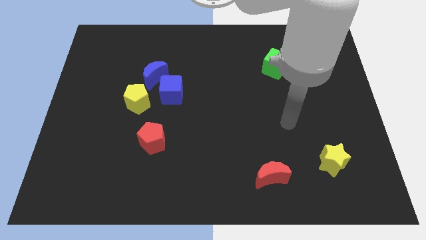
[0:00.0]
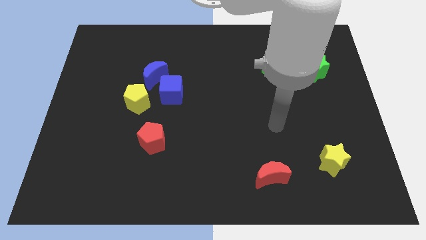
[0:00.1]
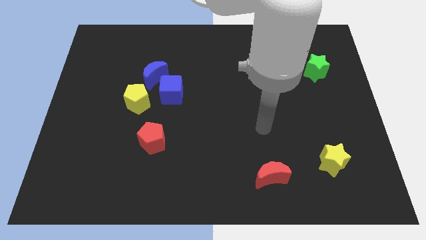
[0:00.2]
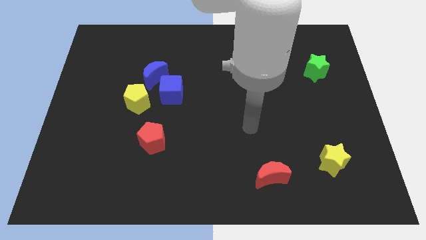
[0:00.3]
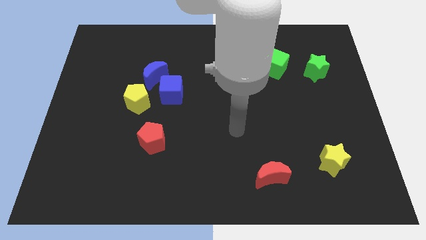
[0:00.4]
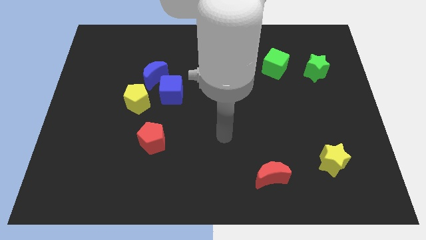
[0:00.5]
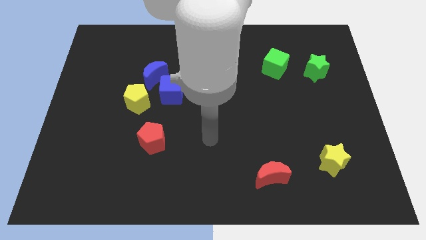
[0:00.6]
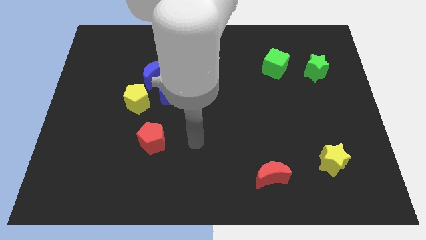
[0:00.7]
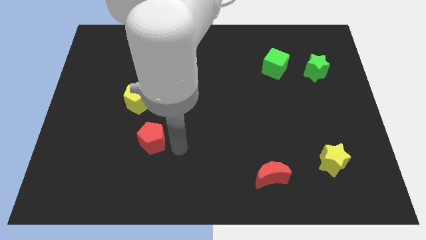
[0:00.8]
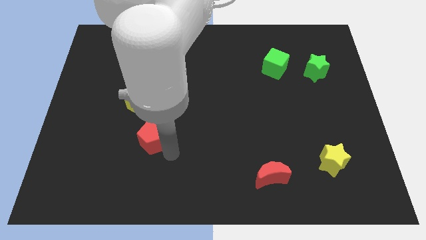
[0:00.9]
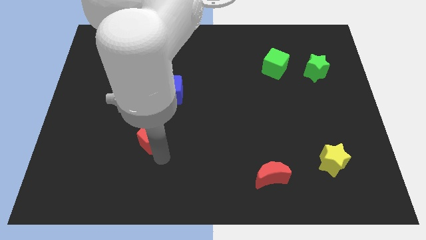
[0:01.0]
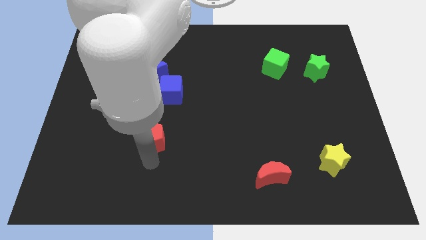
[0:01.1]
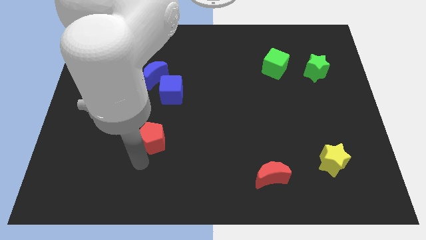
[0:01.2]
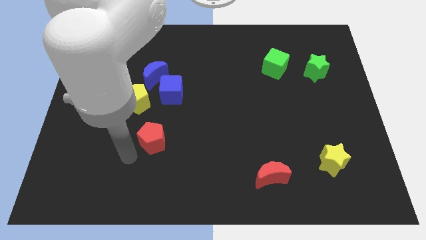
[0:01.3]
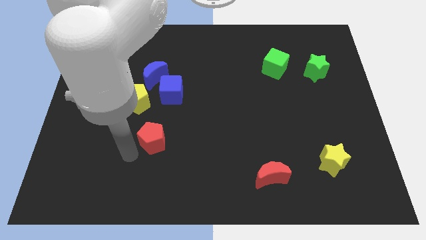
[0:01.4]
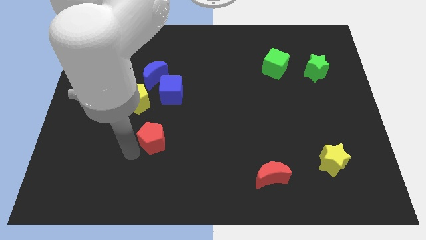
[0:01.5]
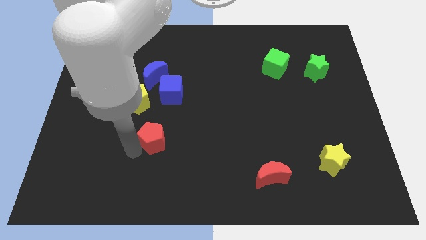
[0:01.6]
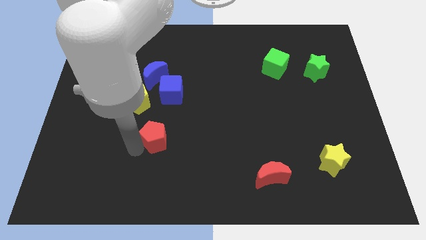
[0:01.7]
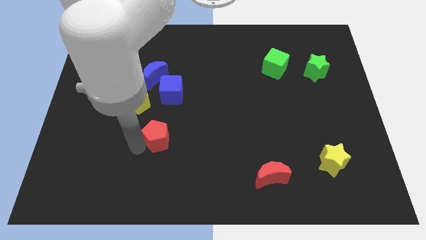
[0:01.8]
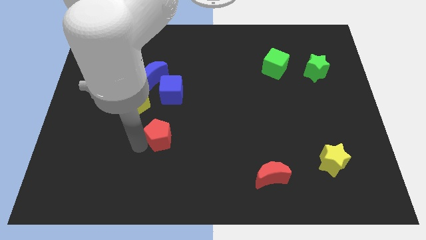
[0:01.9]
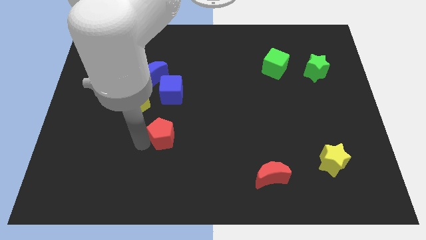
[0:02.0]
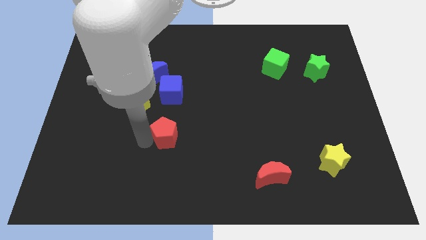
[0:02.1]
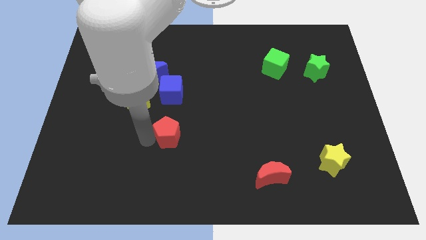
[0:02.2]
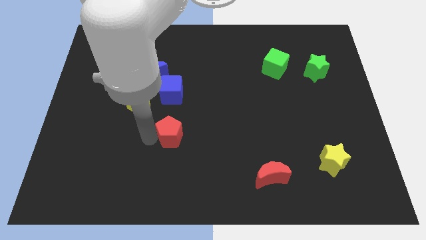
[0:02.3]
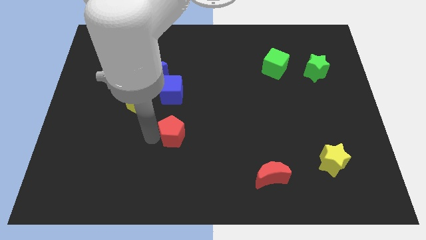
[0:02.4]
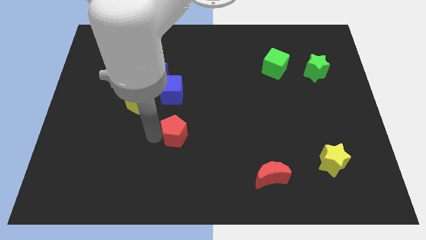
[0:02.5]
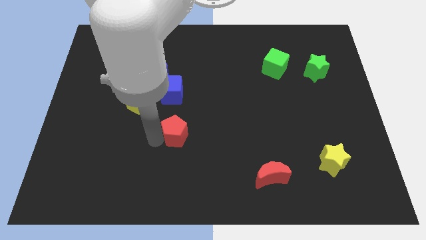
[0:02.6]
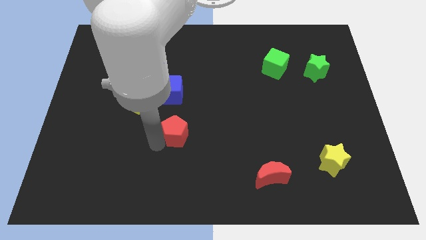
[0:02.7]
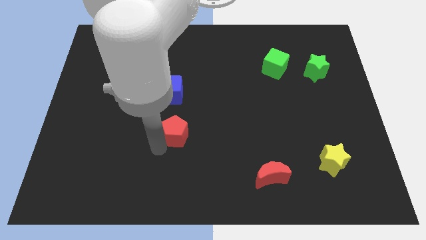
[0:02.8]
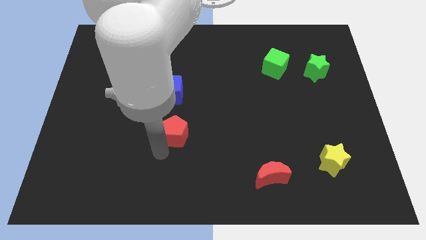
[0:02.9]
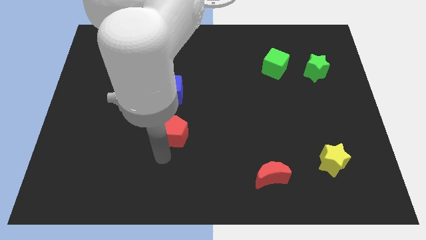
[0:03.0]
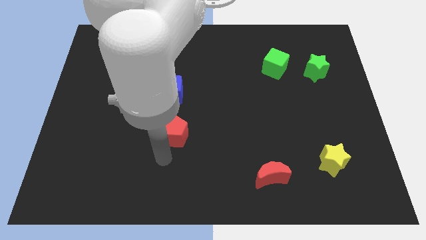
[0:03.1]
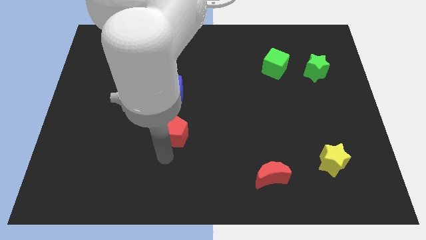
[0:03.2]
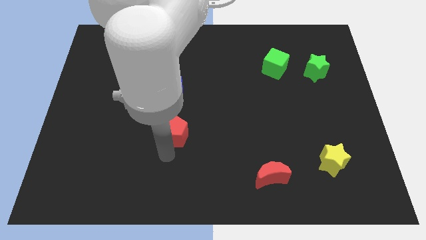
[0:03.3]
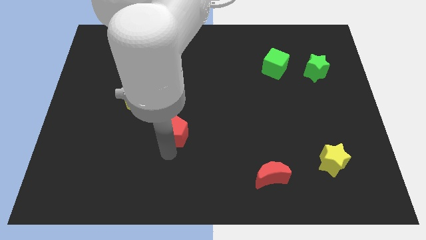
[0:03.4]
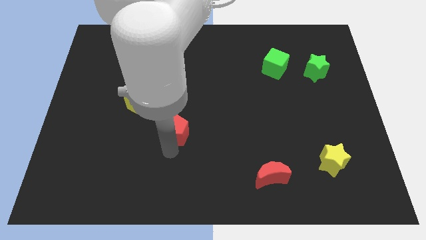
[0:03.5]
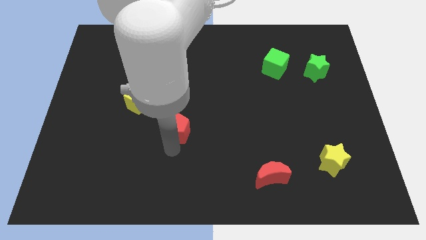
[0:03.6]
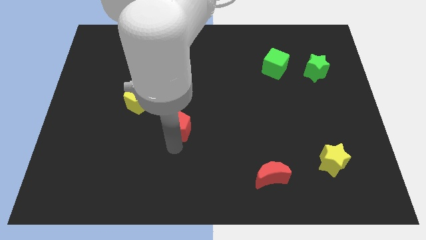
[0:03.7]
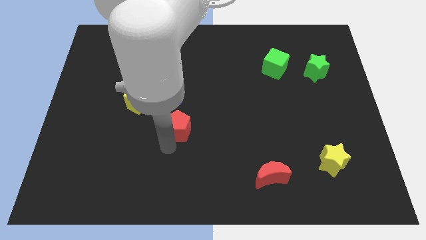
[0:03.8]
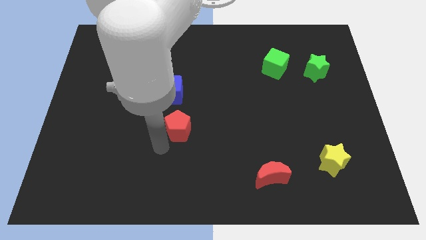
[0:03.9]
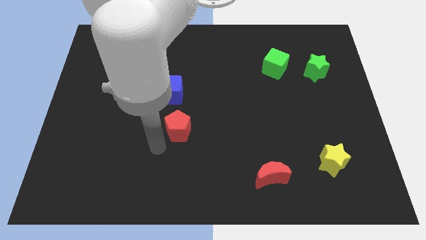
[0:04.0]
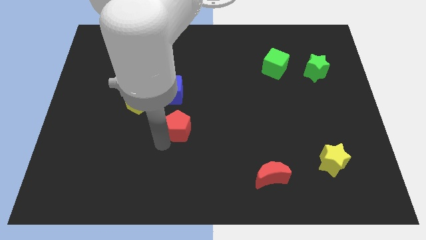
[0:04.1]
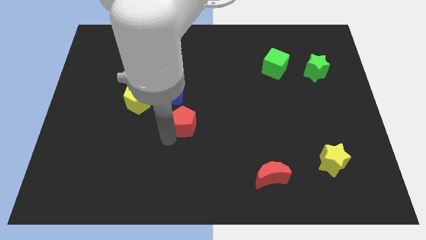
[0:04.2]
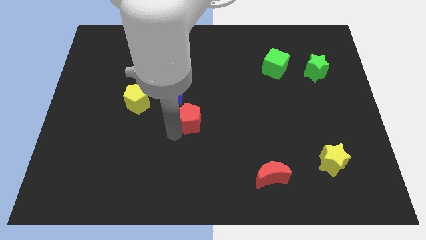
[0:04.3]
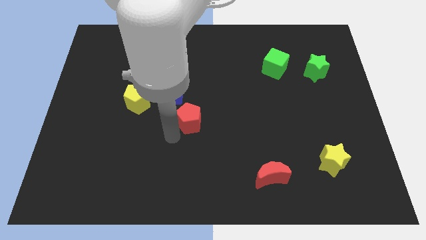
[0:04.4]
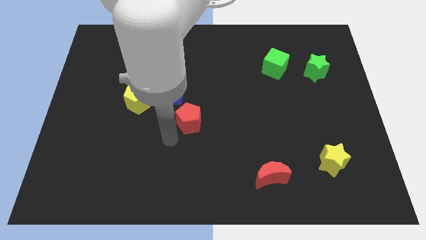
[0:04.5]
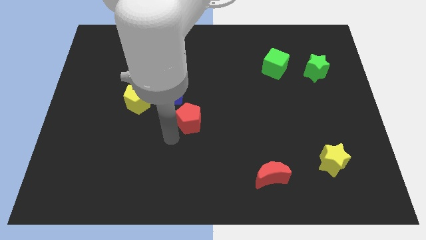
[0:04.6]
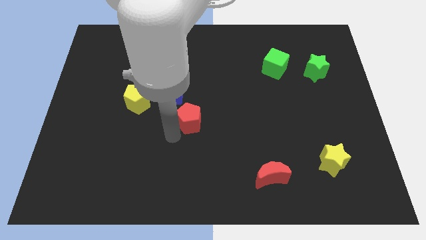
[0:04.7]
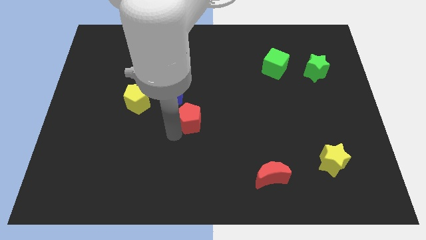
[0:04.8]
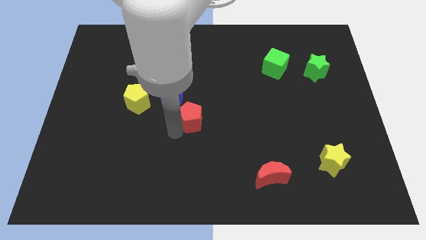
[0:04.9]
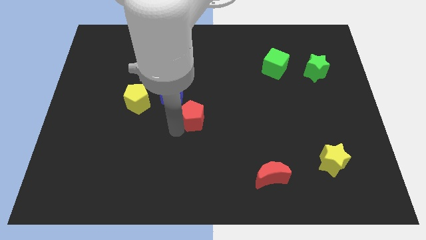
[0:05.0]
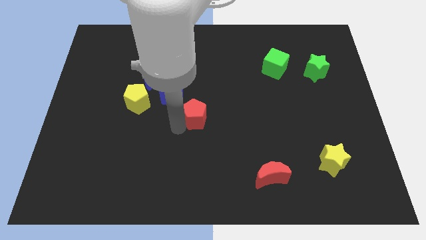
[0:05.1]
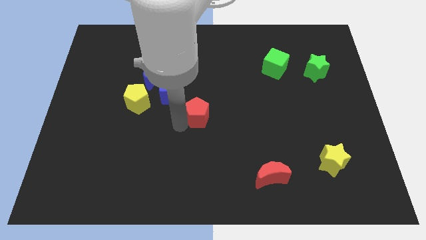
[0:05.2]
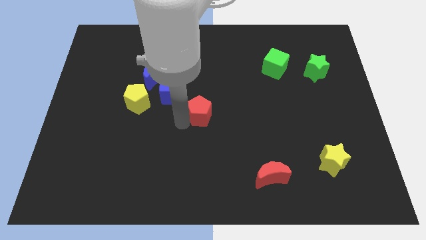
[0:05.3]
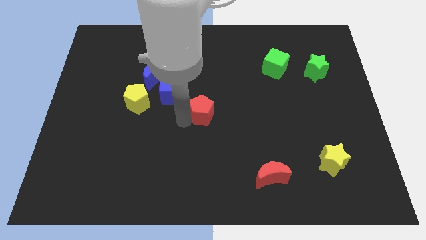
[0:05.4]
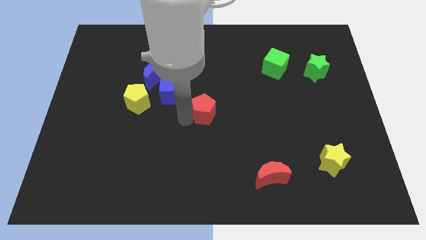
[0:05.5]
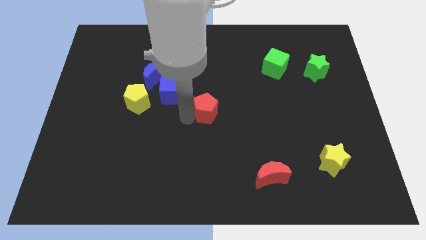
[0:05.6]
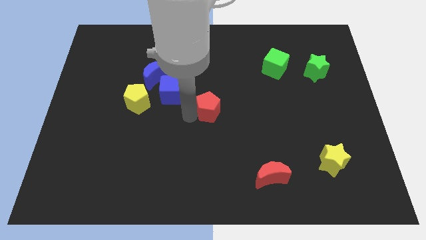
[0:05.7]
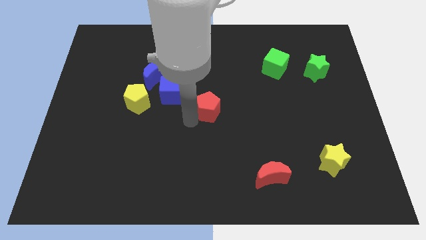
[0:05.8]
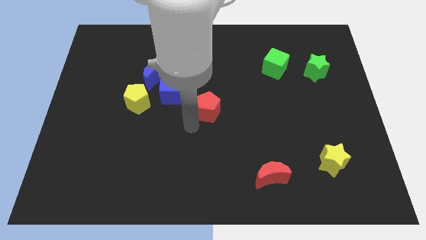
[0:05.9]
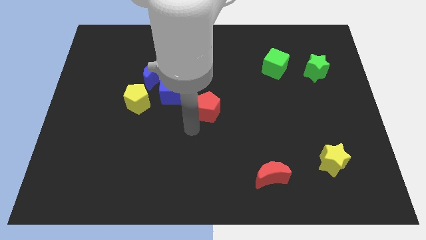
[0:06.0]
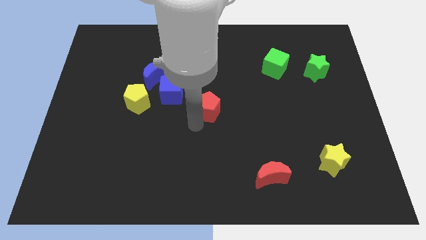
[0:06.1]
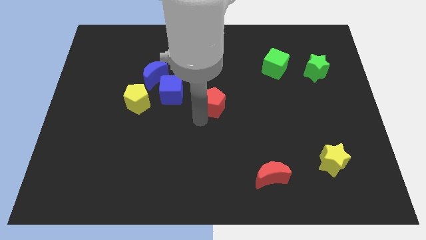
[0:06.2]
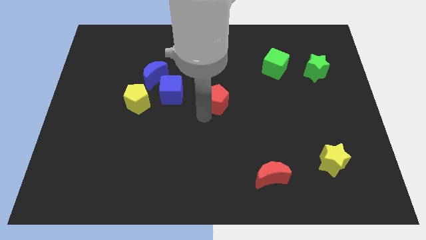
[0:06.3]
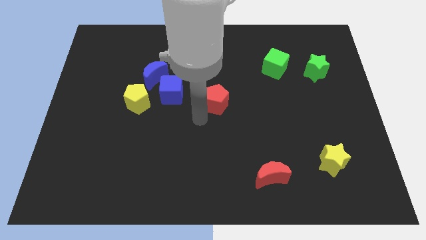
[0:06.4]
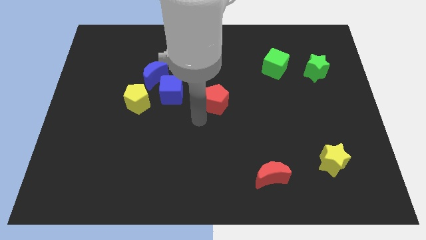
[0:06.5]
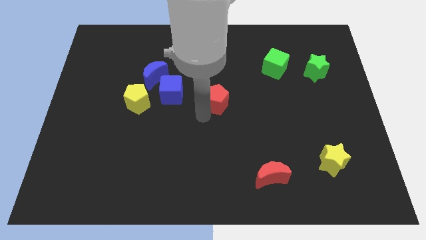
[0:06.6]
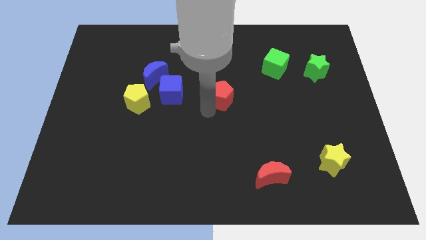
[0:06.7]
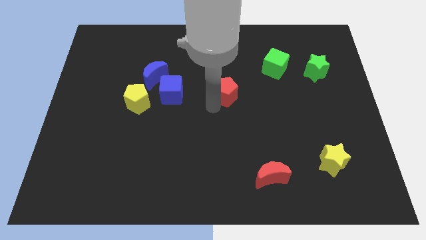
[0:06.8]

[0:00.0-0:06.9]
move the red pentagon up and right diagonally

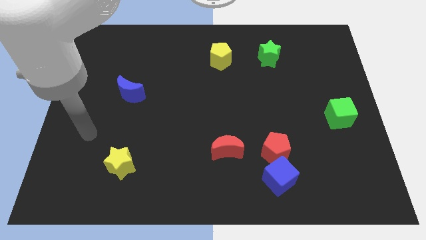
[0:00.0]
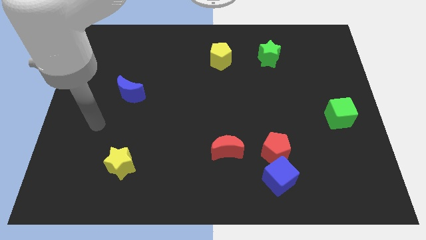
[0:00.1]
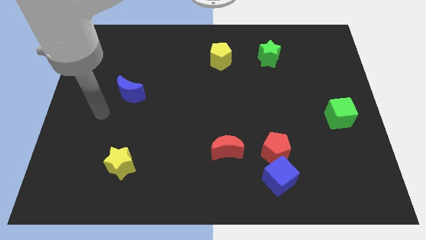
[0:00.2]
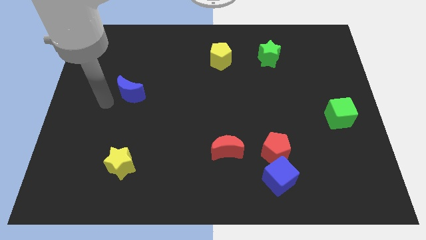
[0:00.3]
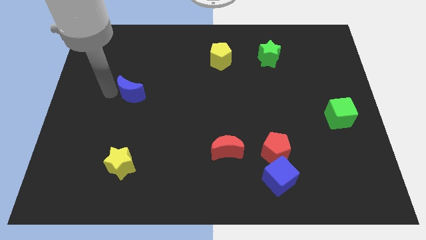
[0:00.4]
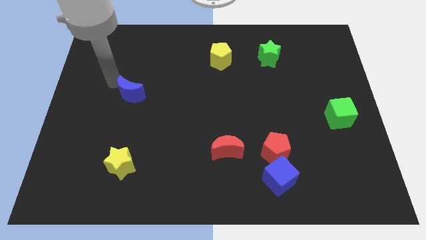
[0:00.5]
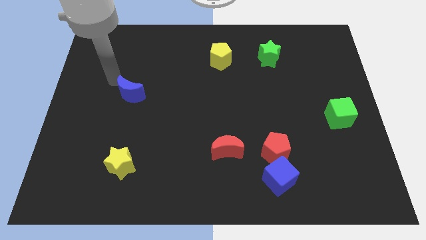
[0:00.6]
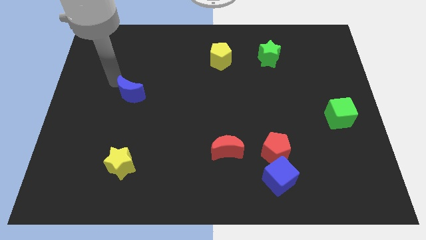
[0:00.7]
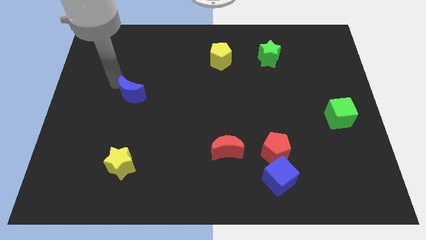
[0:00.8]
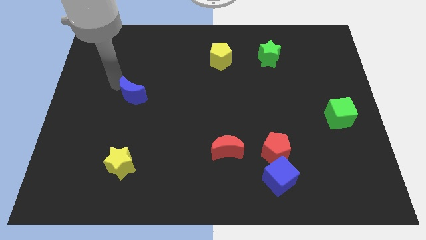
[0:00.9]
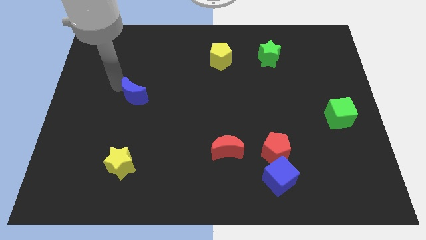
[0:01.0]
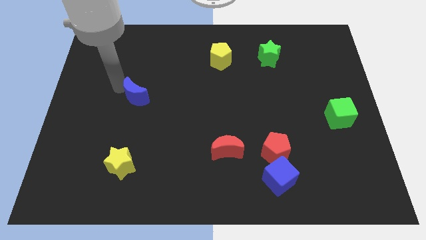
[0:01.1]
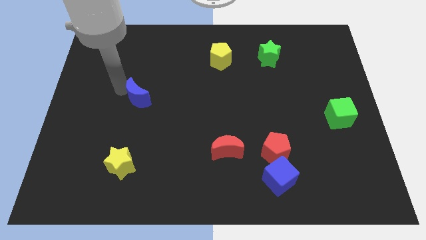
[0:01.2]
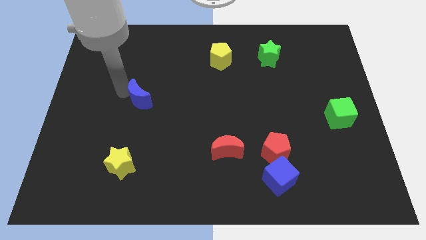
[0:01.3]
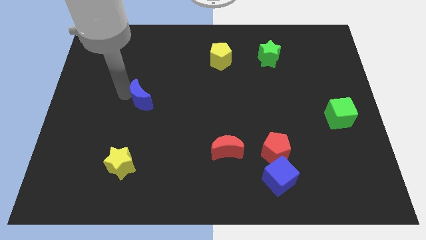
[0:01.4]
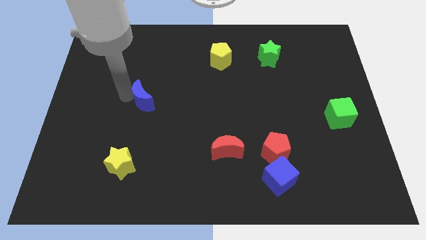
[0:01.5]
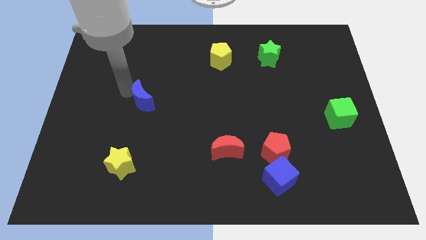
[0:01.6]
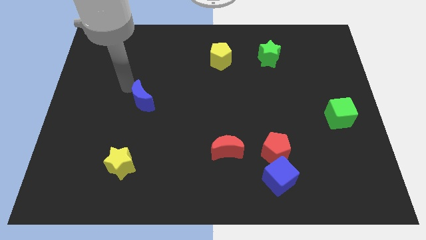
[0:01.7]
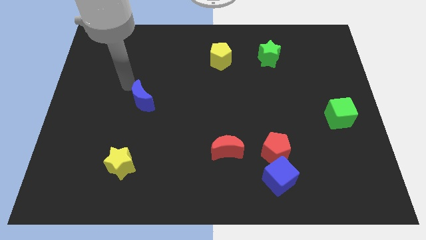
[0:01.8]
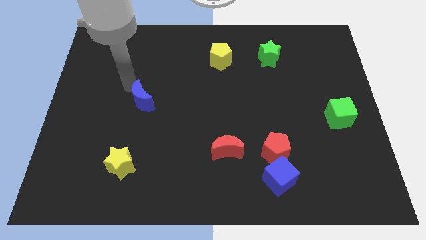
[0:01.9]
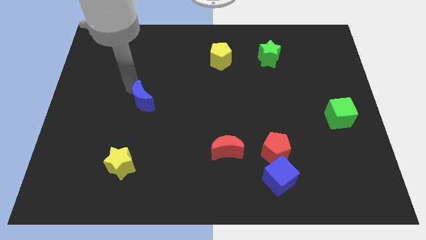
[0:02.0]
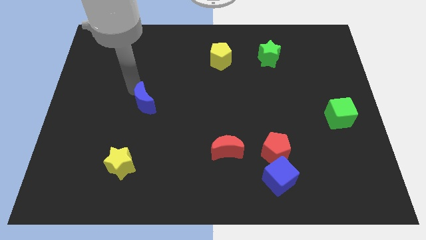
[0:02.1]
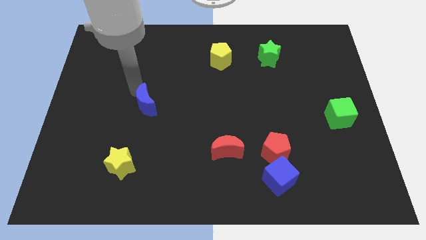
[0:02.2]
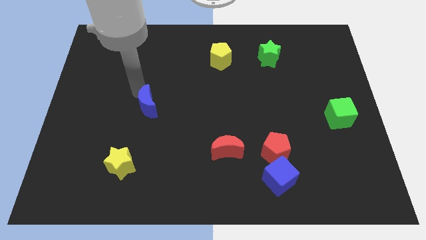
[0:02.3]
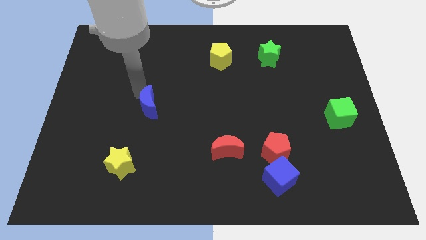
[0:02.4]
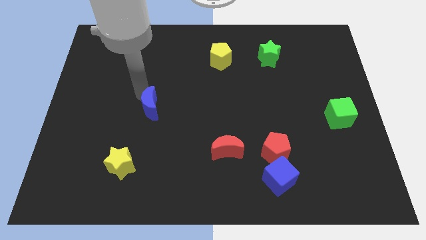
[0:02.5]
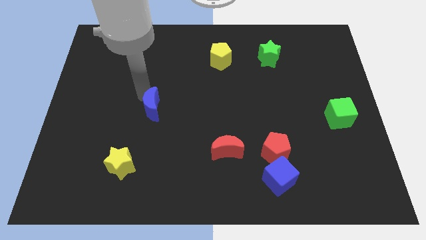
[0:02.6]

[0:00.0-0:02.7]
push the blue moon a little bit downwards and then right
